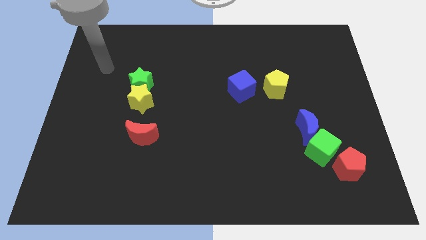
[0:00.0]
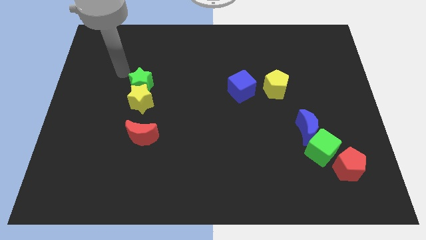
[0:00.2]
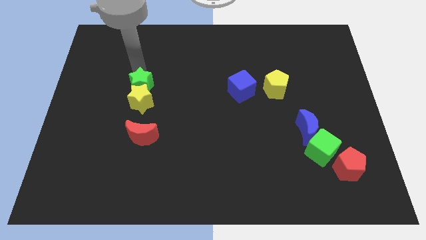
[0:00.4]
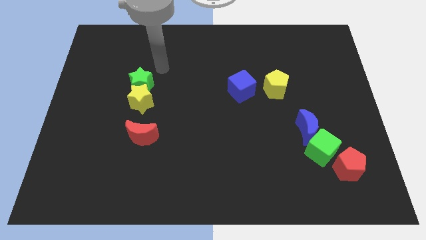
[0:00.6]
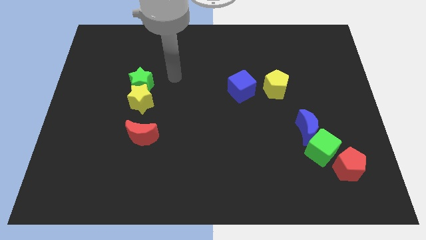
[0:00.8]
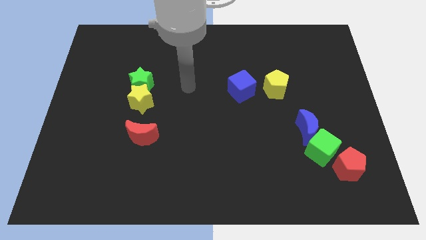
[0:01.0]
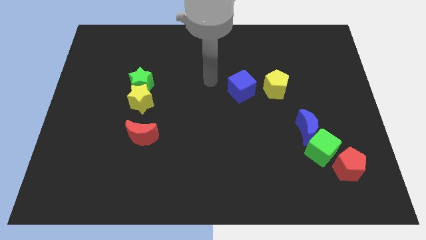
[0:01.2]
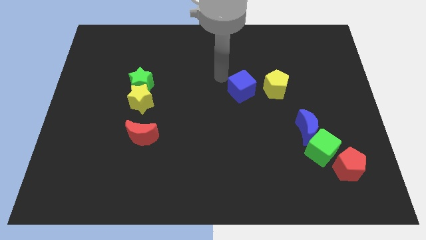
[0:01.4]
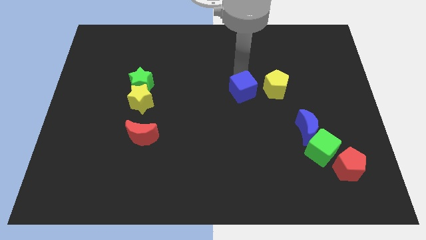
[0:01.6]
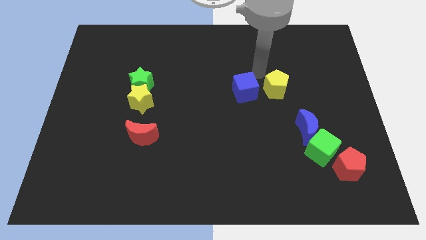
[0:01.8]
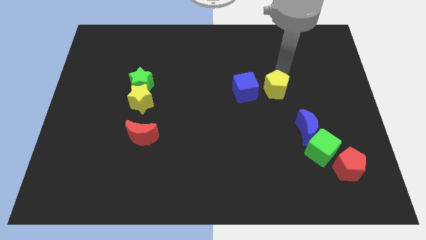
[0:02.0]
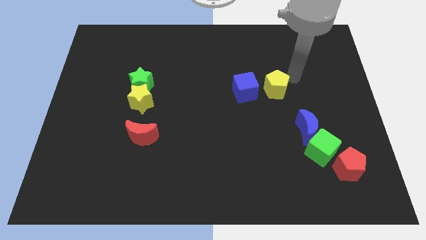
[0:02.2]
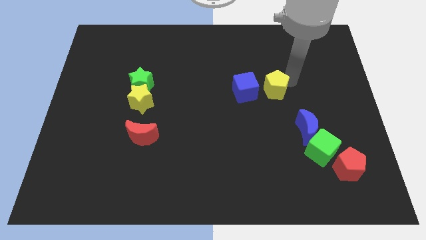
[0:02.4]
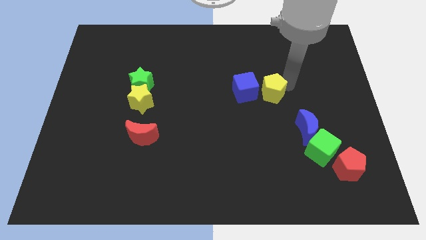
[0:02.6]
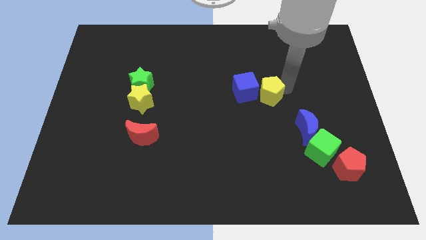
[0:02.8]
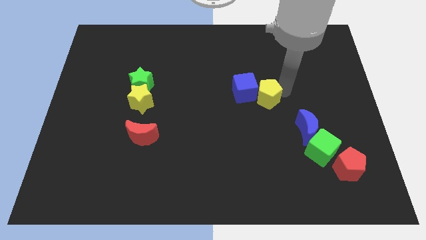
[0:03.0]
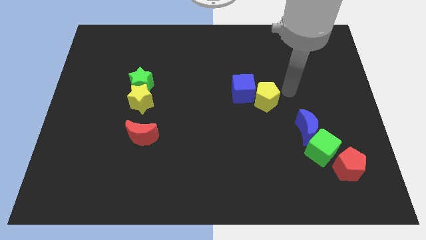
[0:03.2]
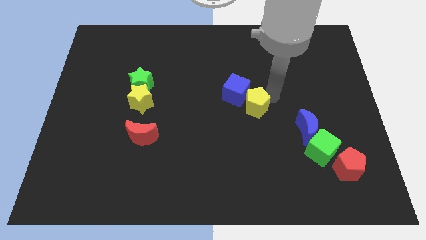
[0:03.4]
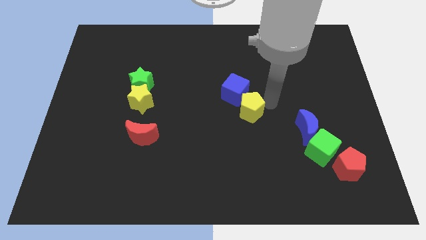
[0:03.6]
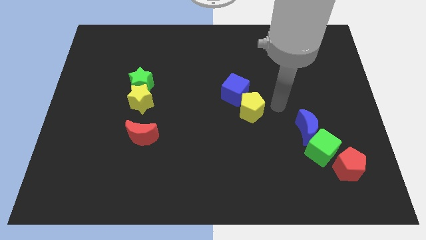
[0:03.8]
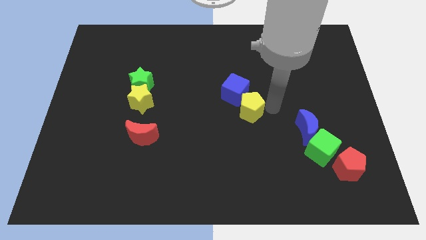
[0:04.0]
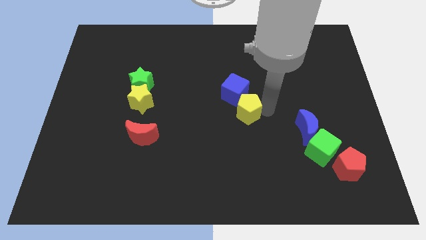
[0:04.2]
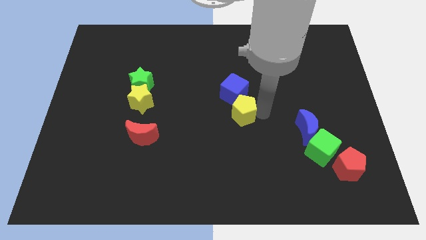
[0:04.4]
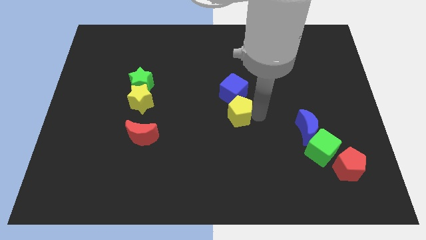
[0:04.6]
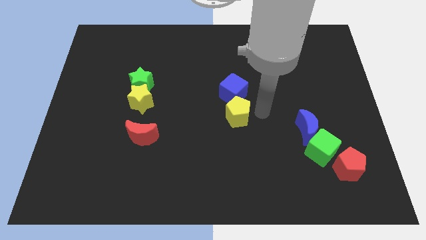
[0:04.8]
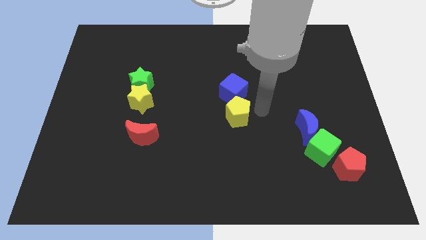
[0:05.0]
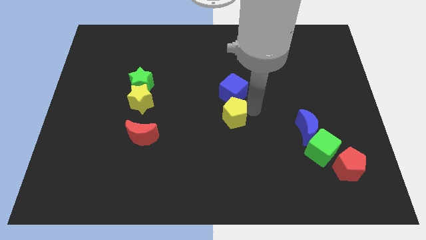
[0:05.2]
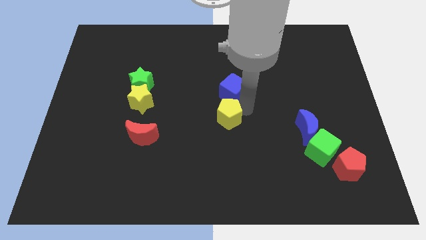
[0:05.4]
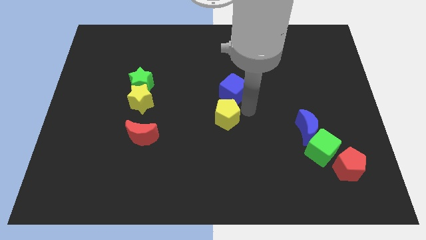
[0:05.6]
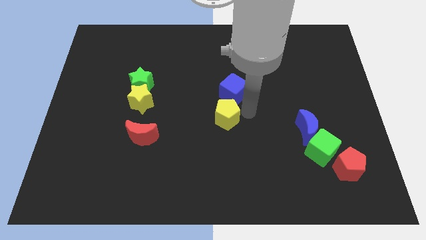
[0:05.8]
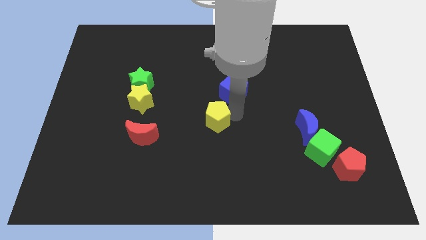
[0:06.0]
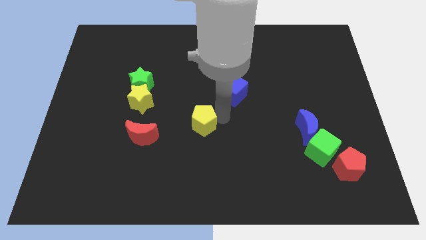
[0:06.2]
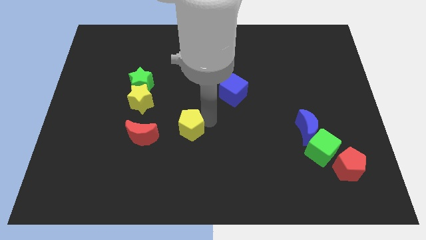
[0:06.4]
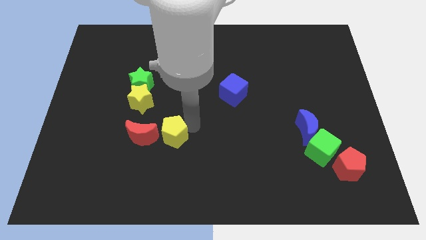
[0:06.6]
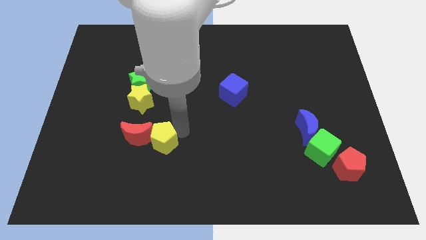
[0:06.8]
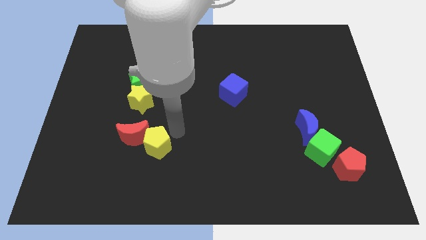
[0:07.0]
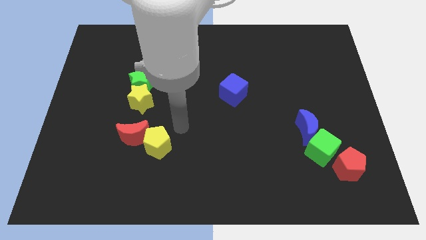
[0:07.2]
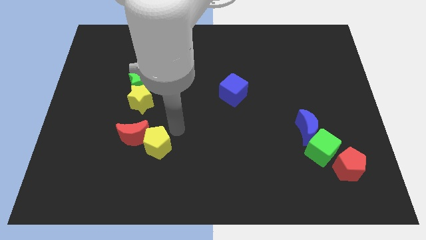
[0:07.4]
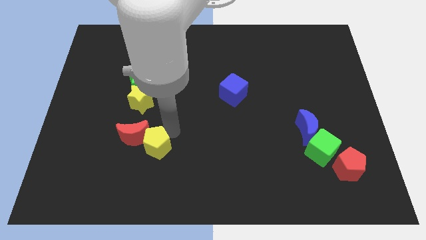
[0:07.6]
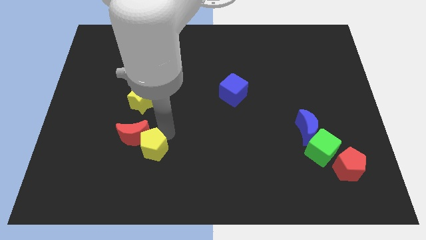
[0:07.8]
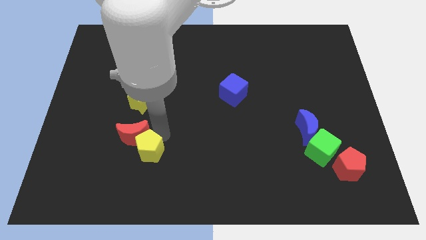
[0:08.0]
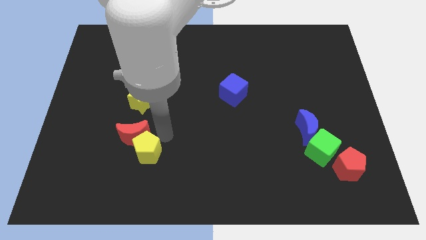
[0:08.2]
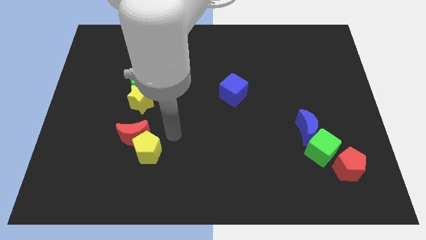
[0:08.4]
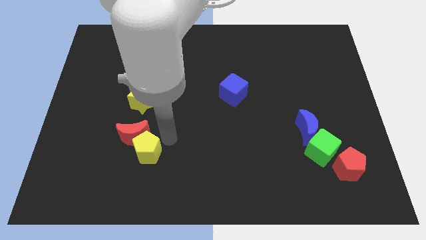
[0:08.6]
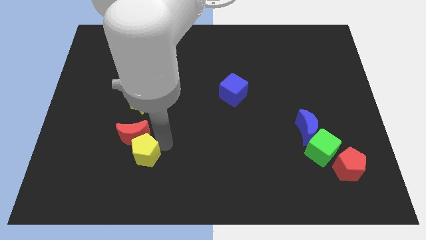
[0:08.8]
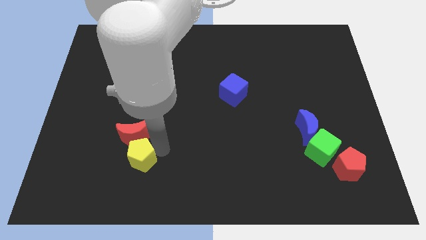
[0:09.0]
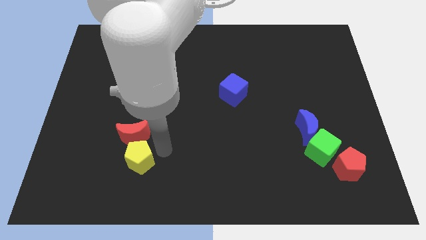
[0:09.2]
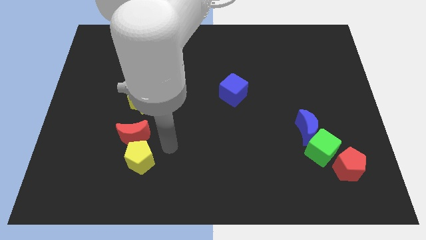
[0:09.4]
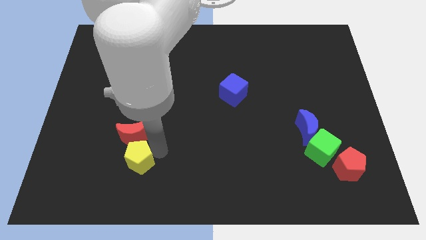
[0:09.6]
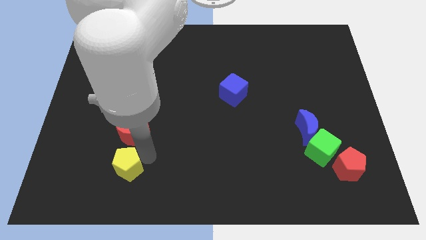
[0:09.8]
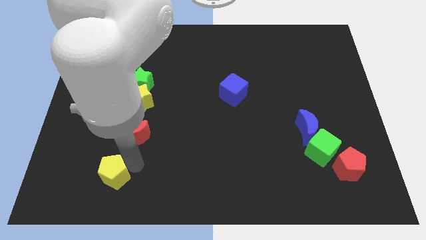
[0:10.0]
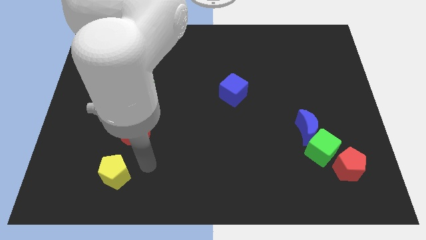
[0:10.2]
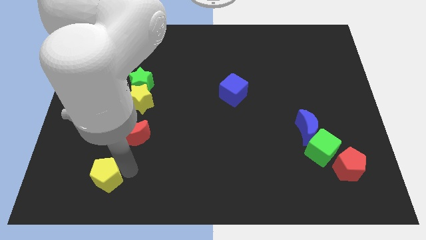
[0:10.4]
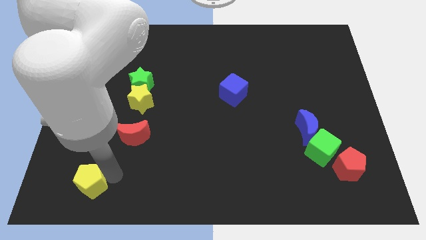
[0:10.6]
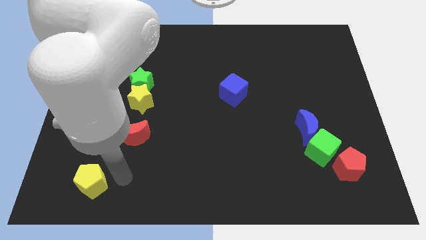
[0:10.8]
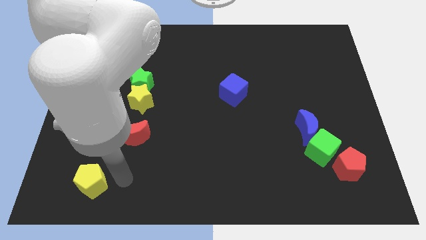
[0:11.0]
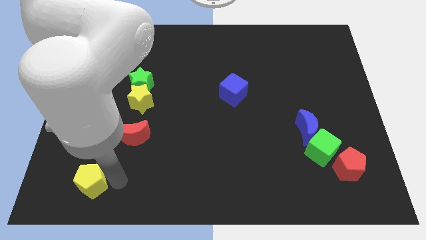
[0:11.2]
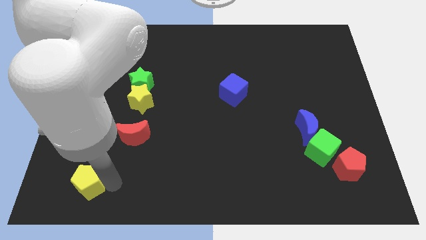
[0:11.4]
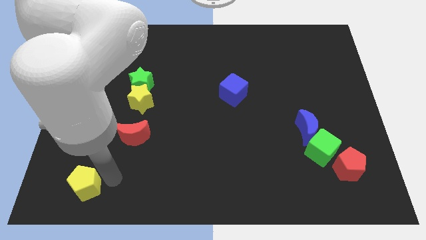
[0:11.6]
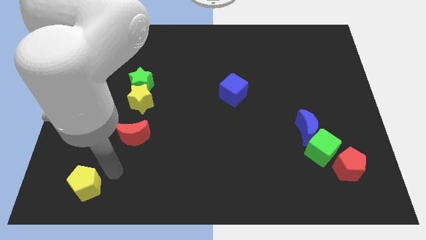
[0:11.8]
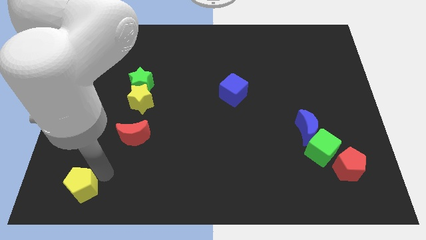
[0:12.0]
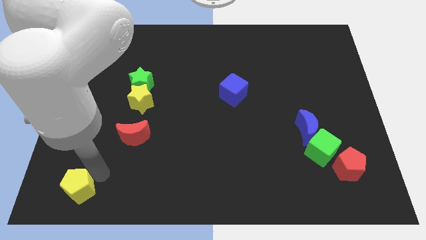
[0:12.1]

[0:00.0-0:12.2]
push the yellow pentagon to the bottom left of the board

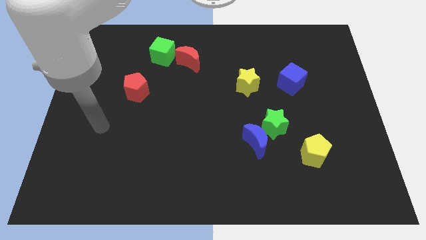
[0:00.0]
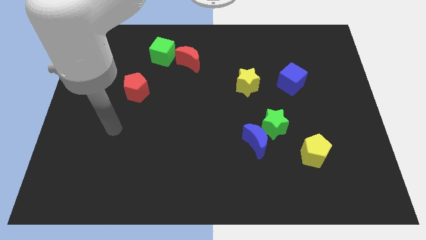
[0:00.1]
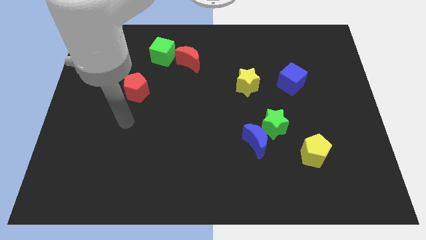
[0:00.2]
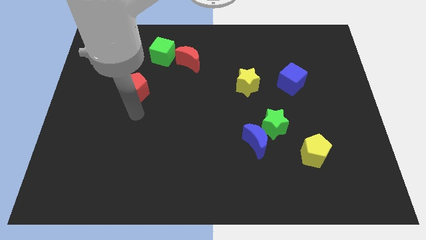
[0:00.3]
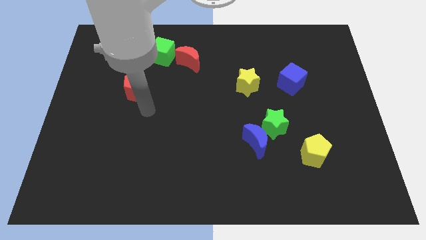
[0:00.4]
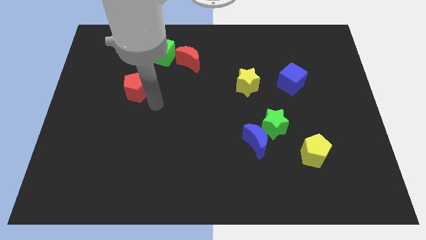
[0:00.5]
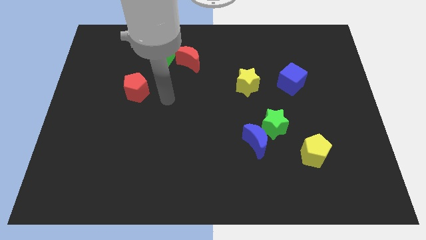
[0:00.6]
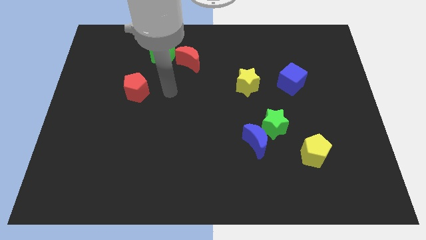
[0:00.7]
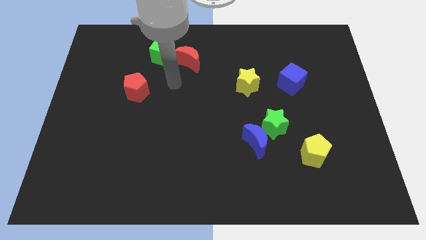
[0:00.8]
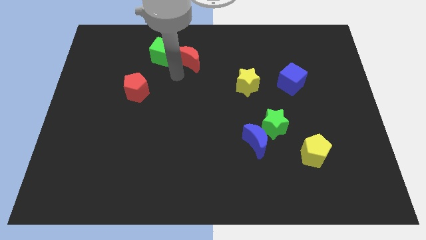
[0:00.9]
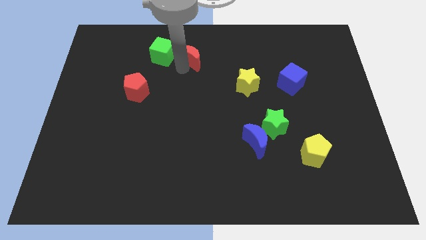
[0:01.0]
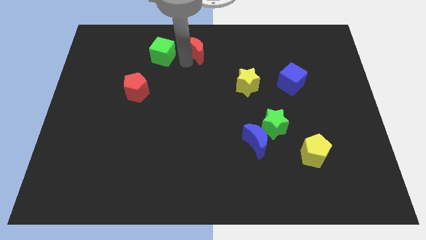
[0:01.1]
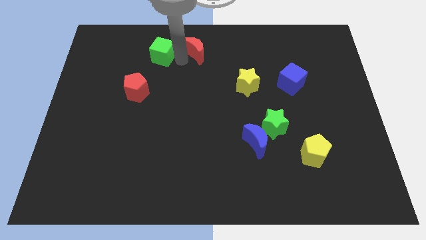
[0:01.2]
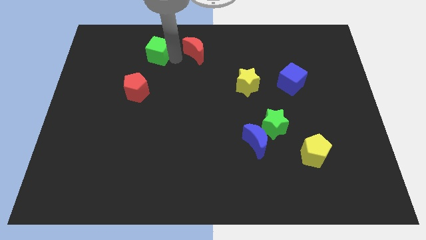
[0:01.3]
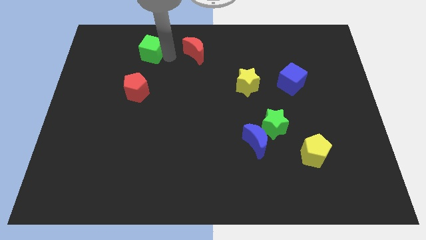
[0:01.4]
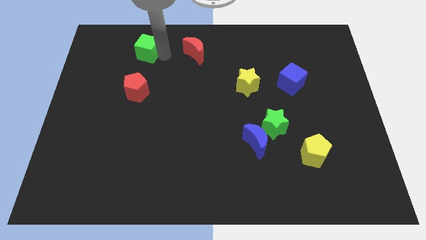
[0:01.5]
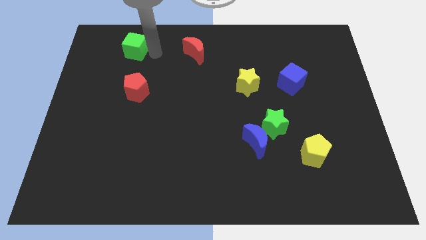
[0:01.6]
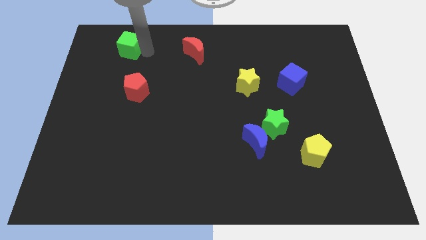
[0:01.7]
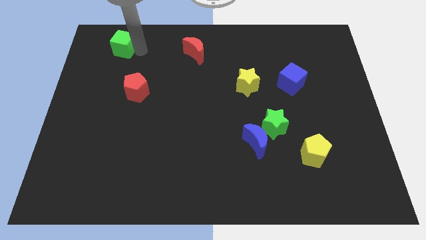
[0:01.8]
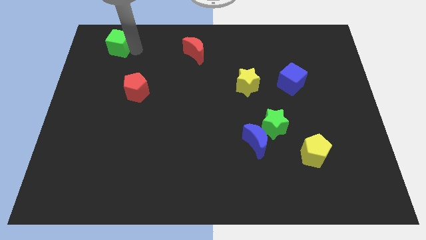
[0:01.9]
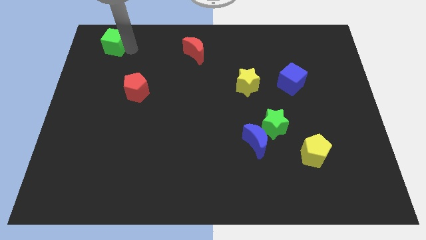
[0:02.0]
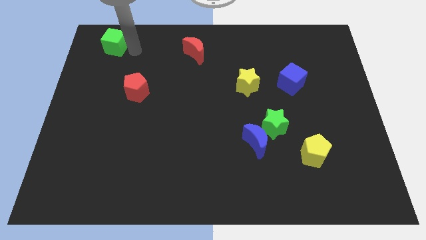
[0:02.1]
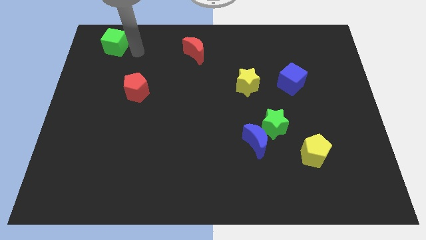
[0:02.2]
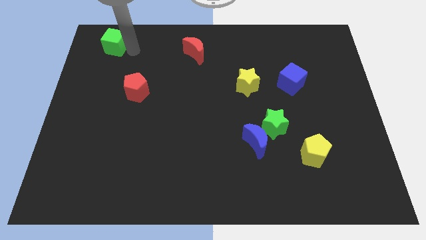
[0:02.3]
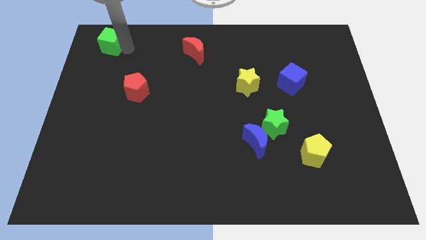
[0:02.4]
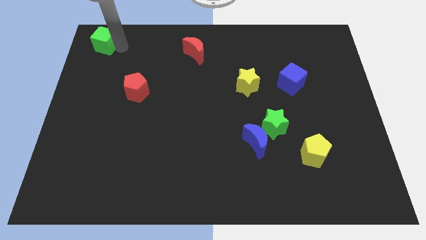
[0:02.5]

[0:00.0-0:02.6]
push the green cube to the top left corner
